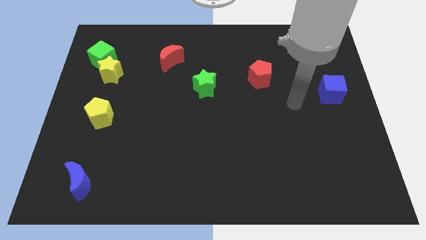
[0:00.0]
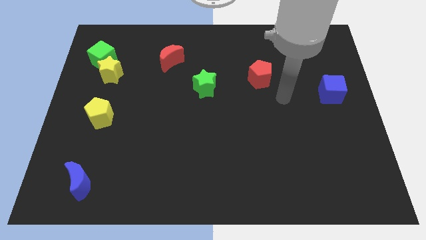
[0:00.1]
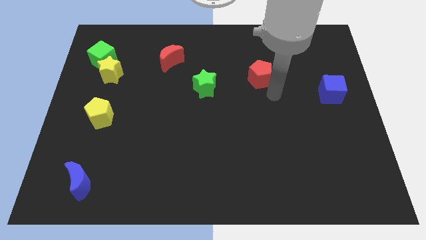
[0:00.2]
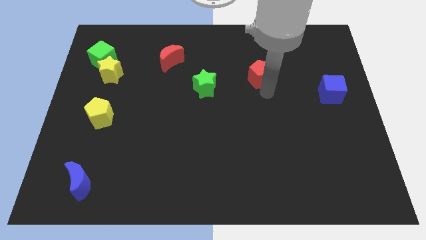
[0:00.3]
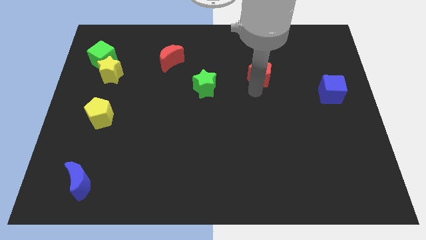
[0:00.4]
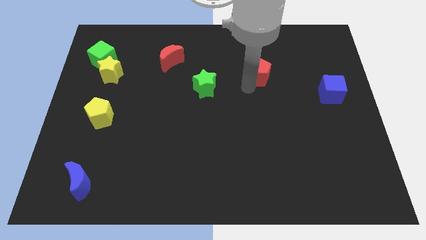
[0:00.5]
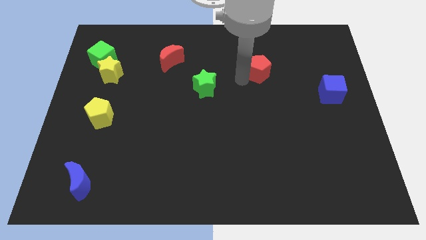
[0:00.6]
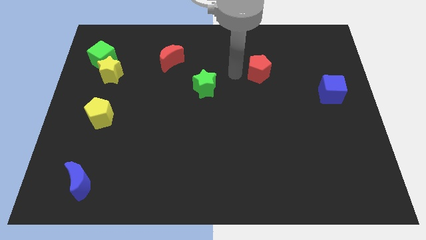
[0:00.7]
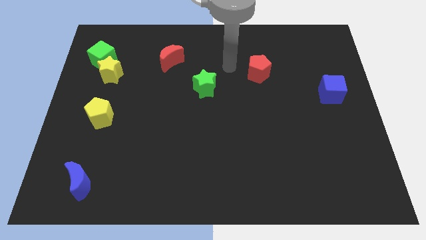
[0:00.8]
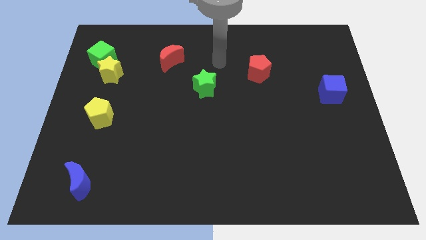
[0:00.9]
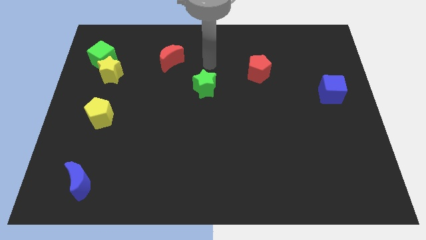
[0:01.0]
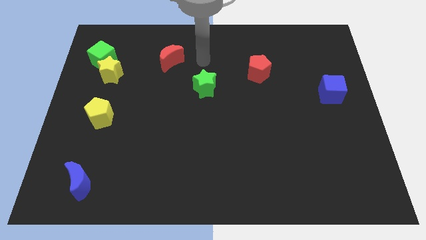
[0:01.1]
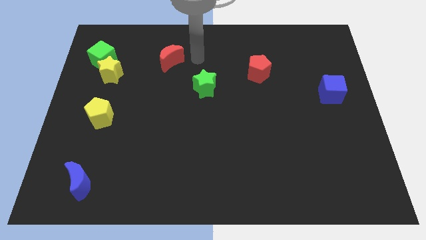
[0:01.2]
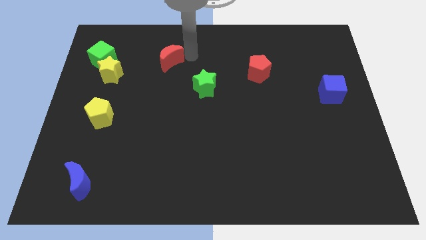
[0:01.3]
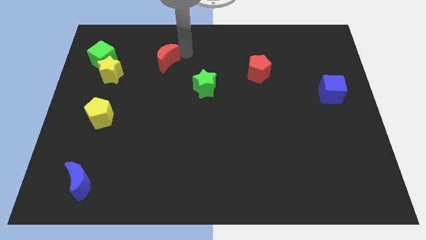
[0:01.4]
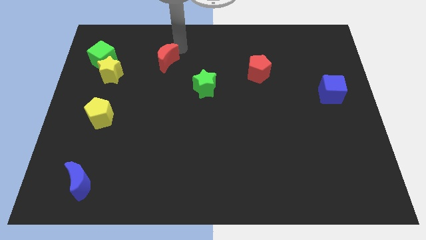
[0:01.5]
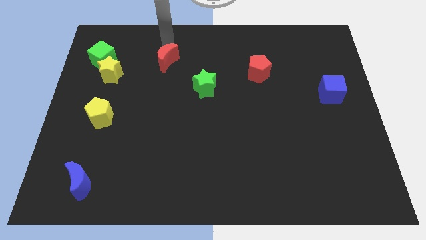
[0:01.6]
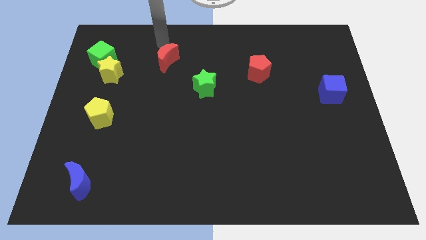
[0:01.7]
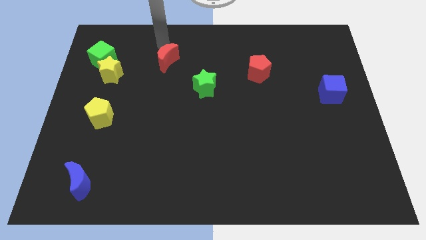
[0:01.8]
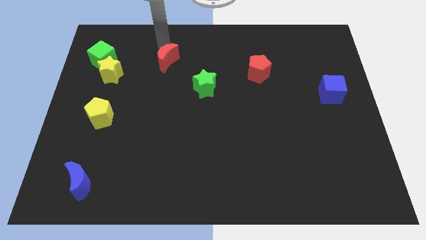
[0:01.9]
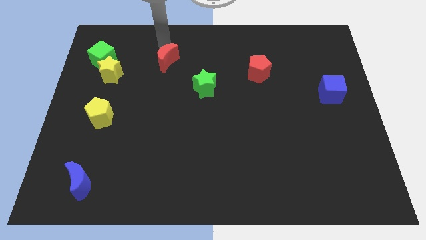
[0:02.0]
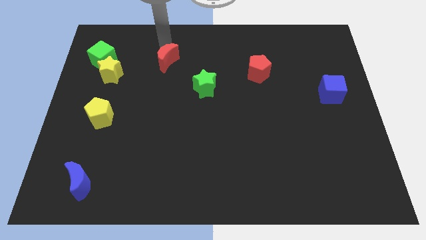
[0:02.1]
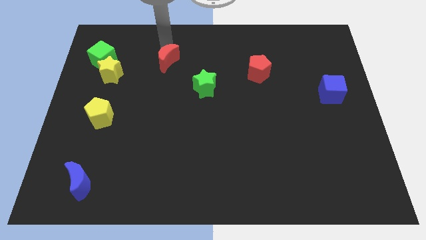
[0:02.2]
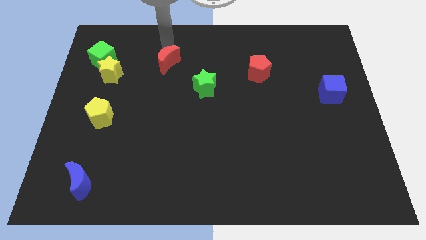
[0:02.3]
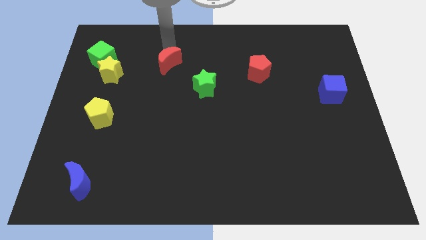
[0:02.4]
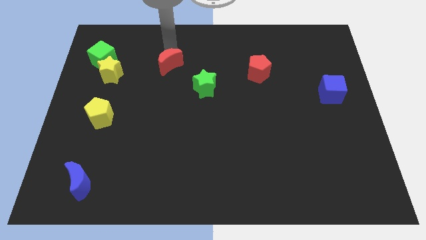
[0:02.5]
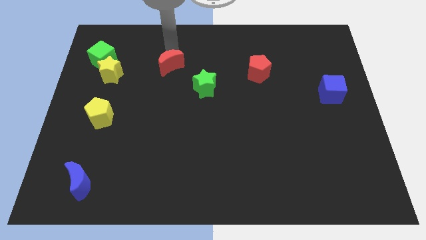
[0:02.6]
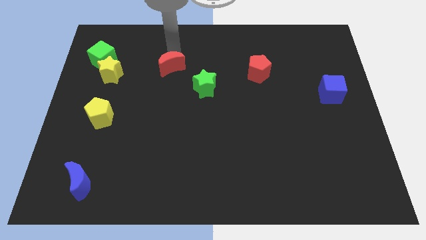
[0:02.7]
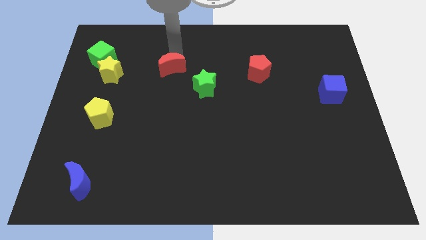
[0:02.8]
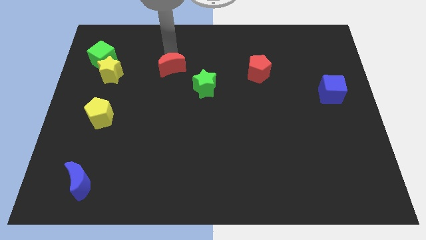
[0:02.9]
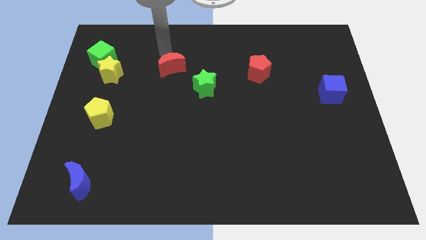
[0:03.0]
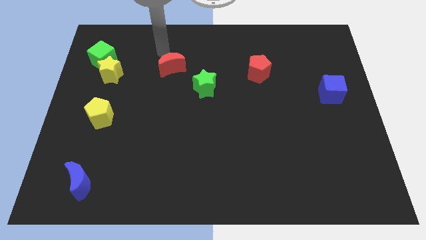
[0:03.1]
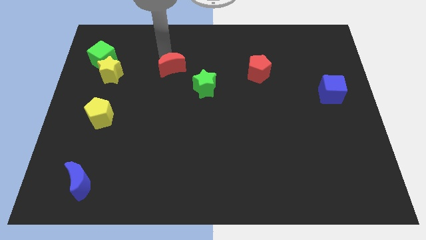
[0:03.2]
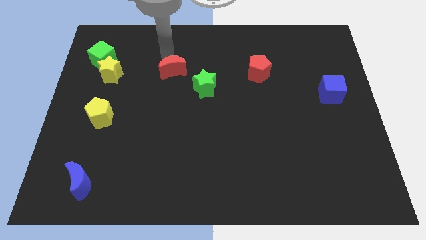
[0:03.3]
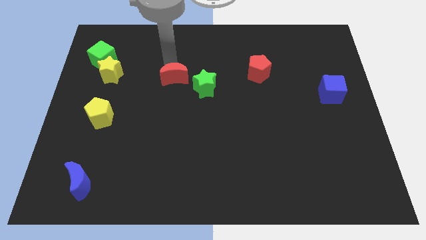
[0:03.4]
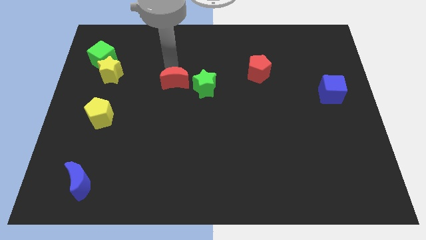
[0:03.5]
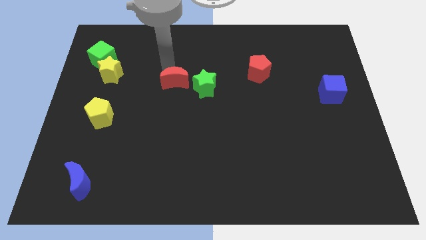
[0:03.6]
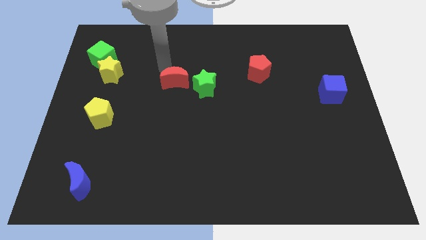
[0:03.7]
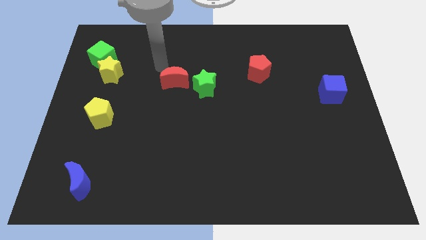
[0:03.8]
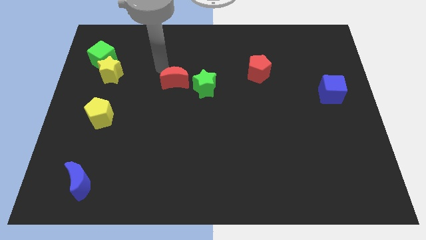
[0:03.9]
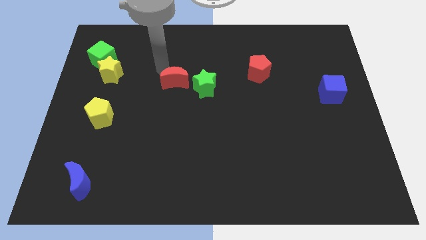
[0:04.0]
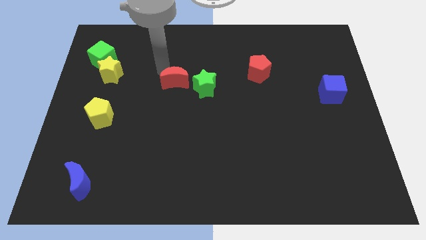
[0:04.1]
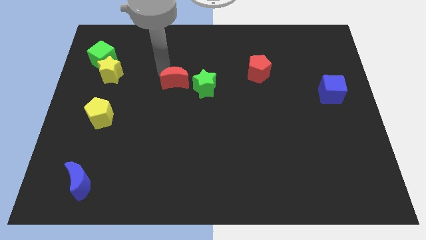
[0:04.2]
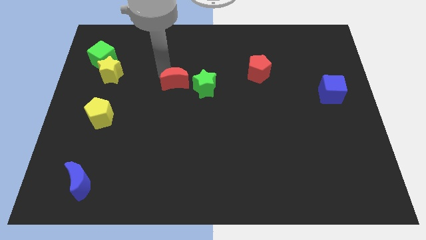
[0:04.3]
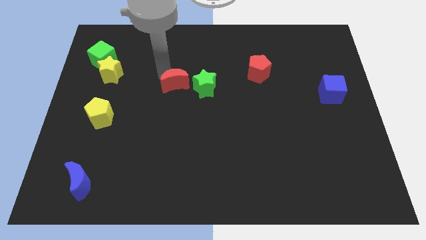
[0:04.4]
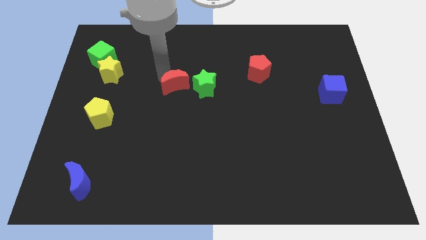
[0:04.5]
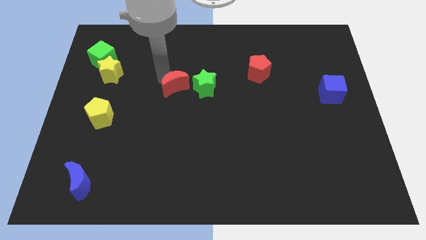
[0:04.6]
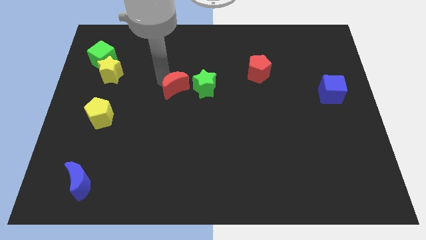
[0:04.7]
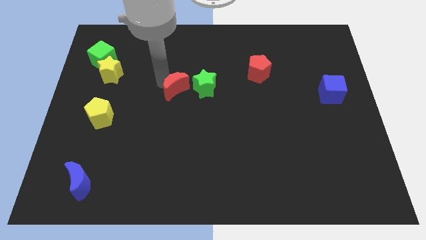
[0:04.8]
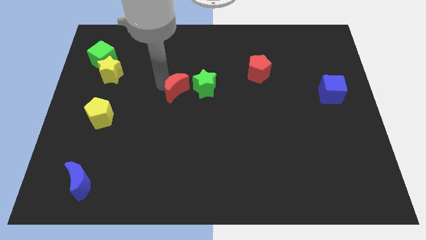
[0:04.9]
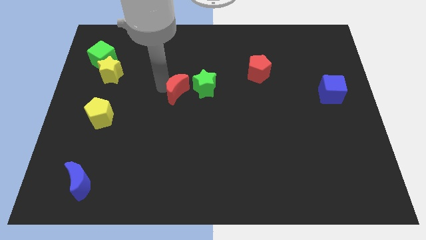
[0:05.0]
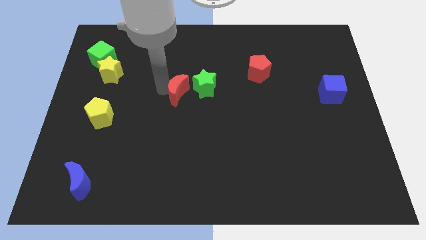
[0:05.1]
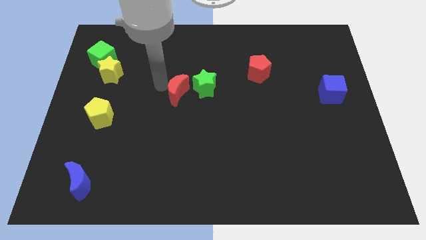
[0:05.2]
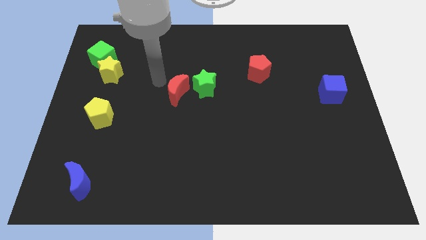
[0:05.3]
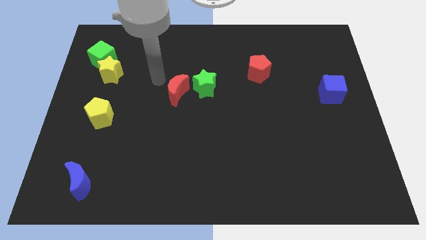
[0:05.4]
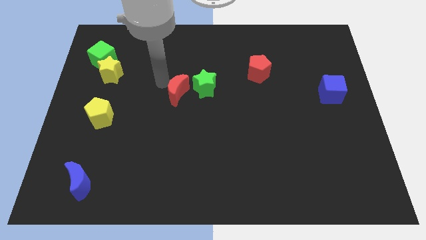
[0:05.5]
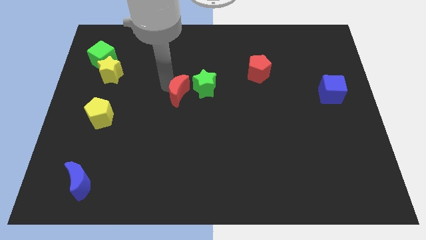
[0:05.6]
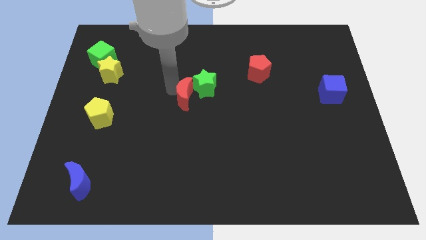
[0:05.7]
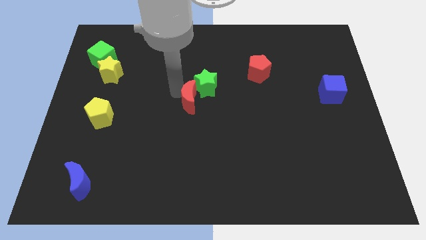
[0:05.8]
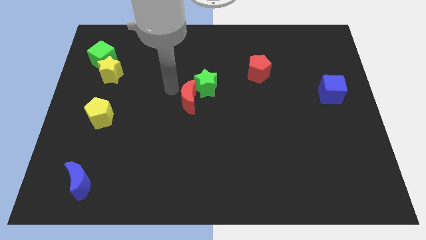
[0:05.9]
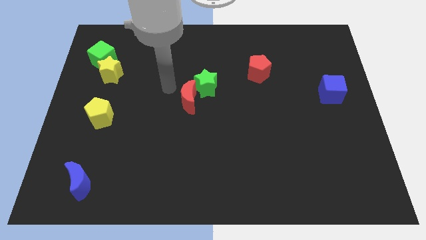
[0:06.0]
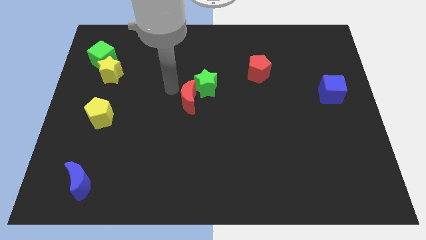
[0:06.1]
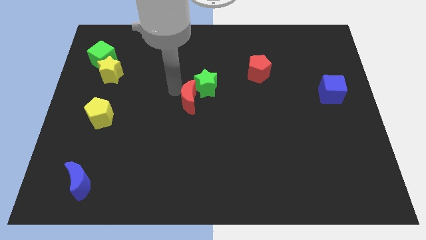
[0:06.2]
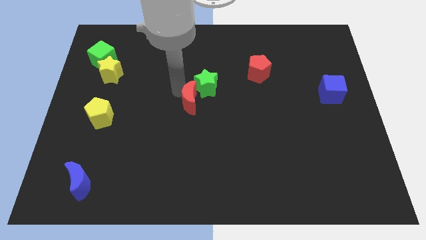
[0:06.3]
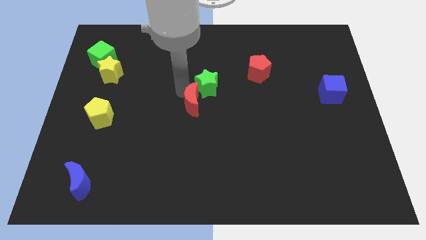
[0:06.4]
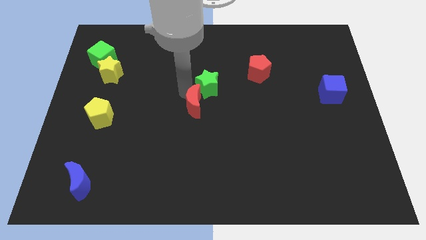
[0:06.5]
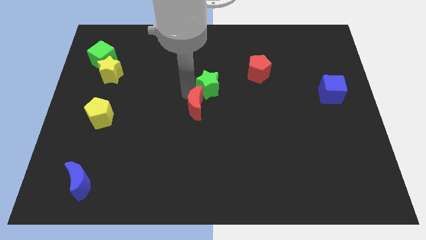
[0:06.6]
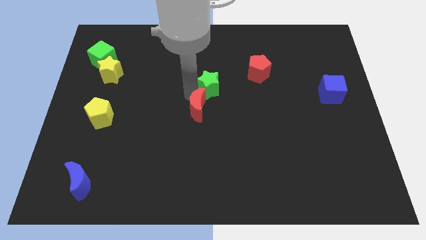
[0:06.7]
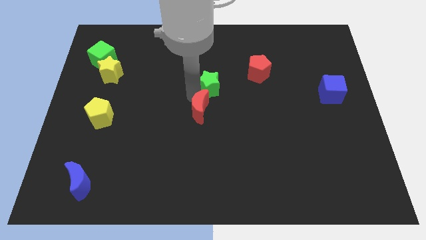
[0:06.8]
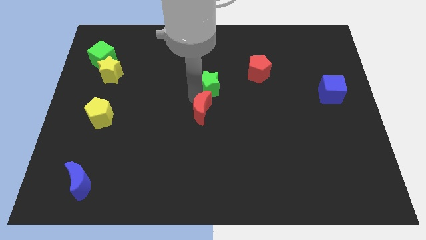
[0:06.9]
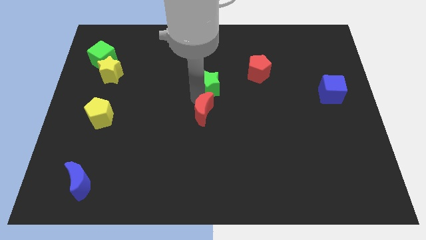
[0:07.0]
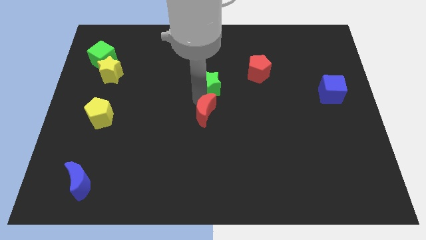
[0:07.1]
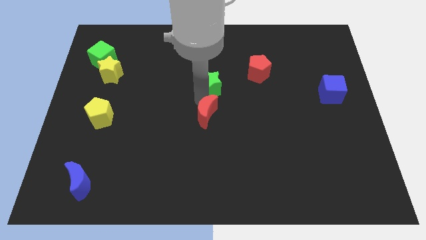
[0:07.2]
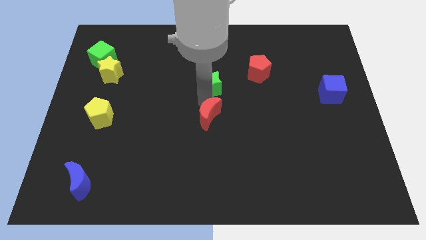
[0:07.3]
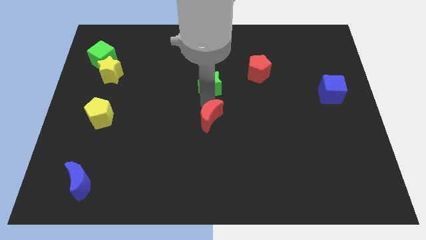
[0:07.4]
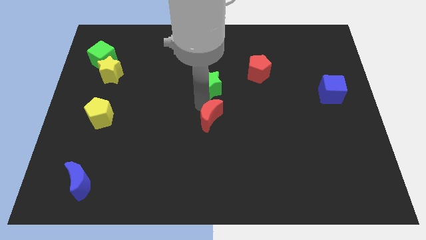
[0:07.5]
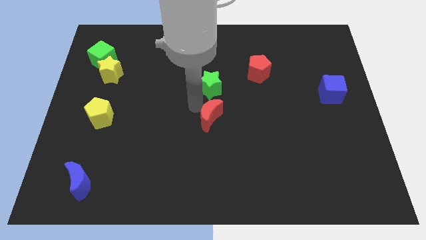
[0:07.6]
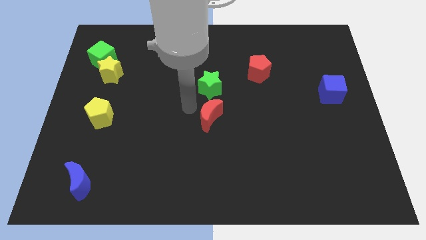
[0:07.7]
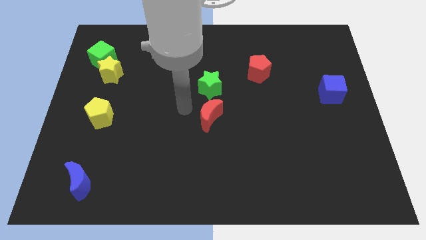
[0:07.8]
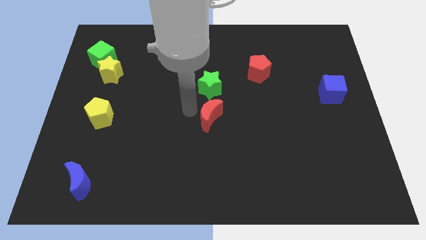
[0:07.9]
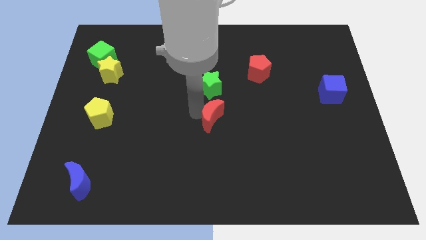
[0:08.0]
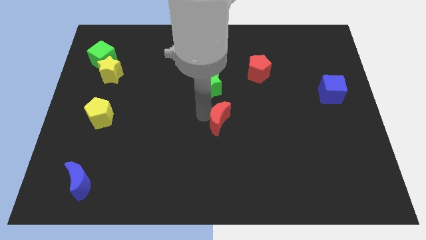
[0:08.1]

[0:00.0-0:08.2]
move the red moon down and then to the right

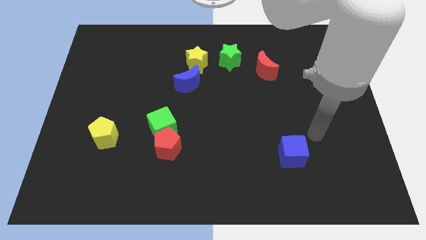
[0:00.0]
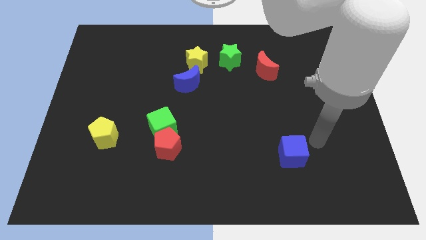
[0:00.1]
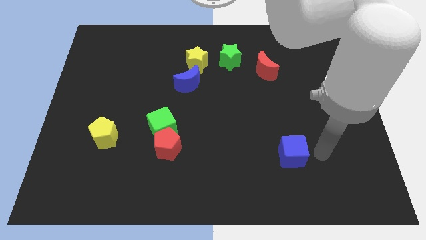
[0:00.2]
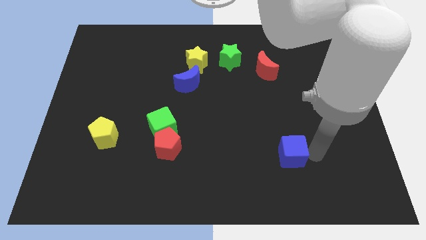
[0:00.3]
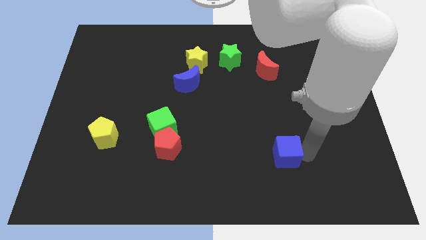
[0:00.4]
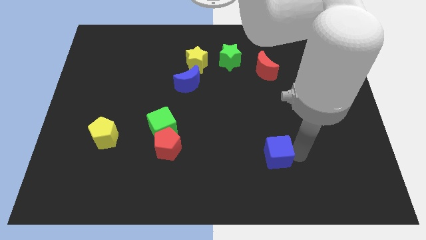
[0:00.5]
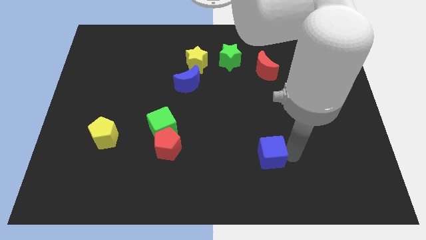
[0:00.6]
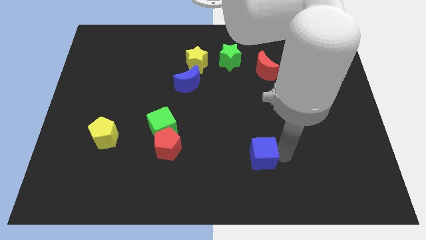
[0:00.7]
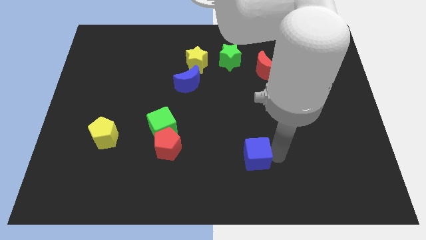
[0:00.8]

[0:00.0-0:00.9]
move the blue cube somewhat to the left
